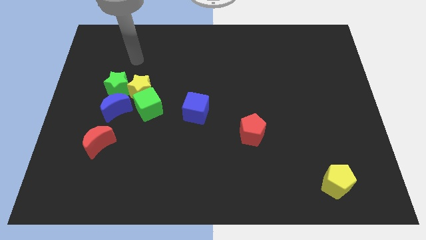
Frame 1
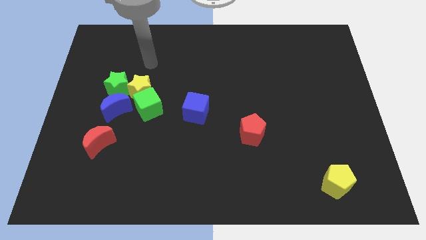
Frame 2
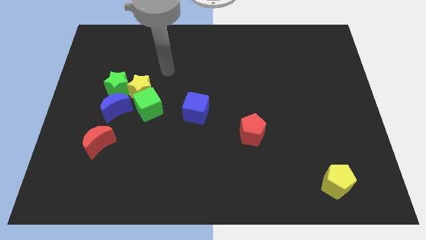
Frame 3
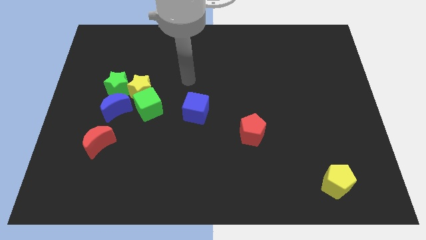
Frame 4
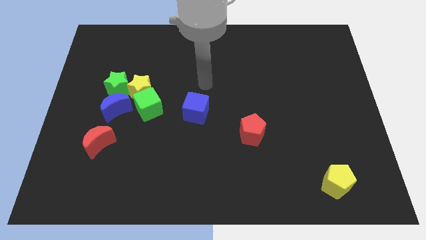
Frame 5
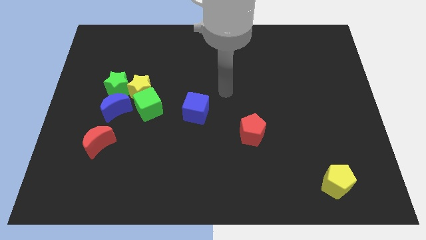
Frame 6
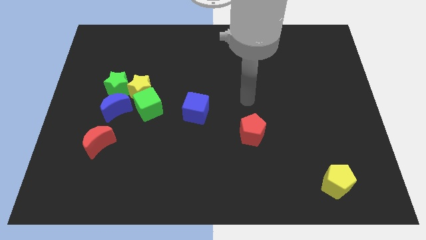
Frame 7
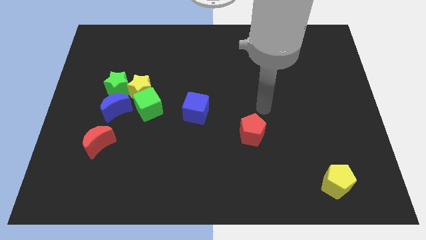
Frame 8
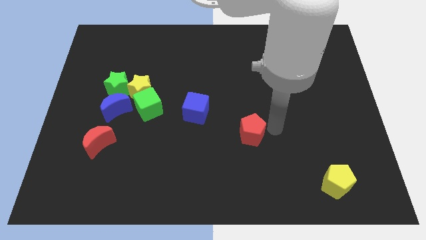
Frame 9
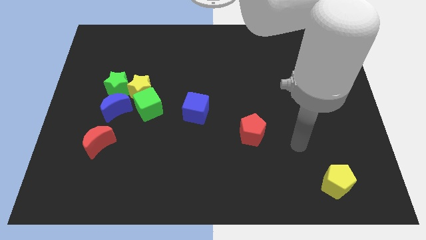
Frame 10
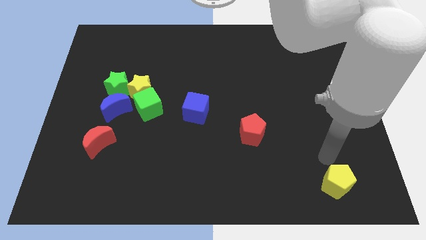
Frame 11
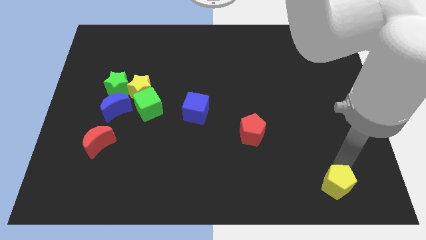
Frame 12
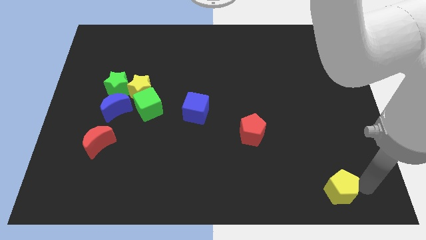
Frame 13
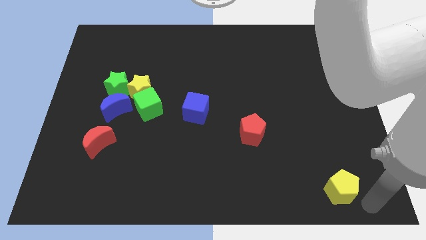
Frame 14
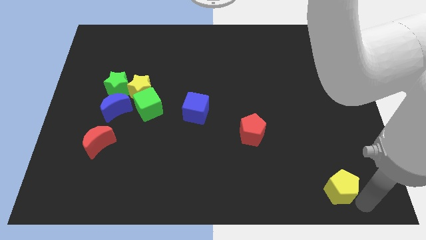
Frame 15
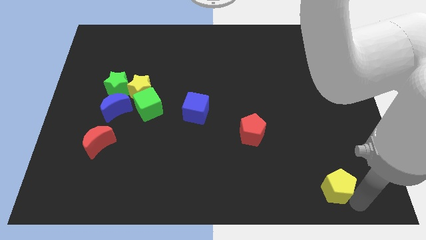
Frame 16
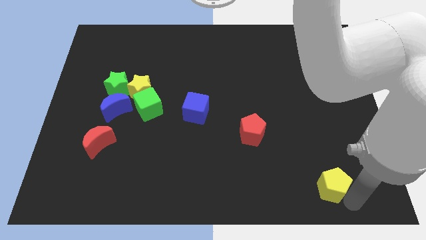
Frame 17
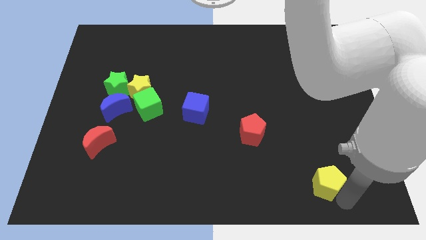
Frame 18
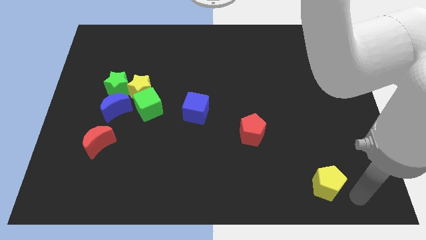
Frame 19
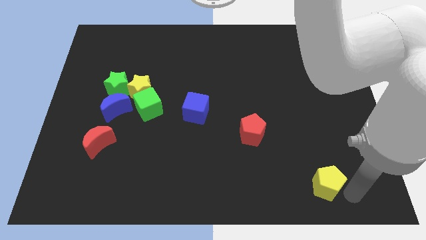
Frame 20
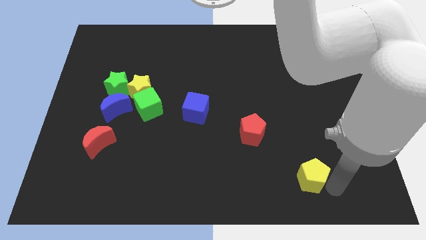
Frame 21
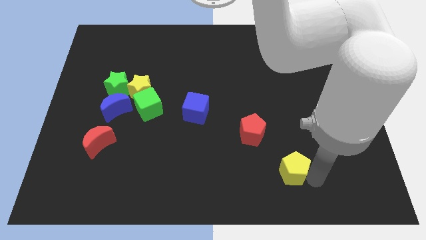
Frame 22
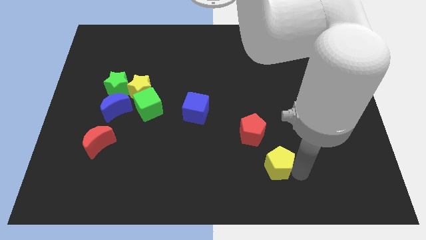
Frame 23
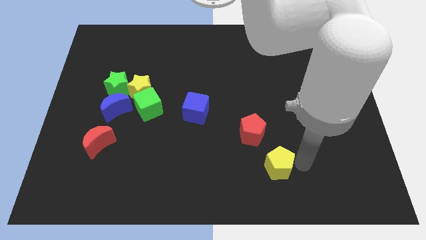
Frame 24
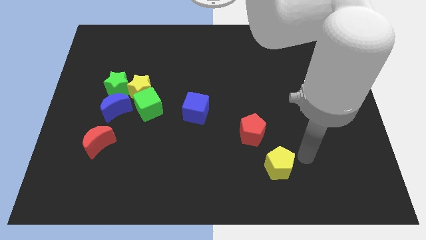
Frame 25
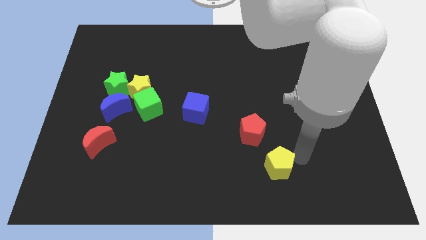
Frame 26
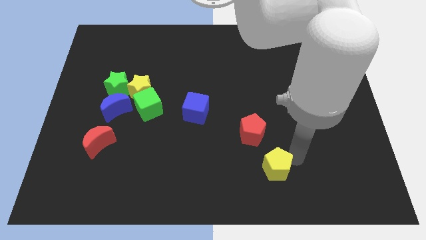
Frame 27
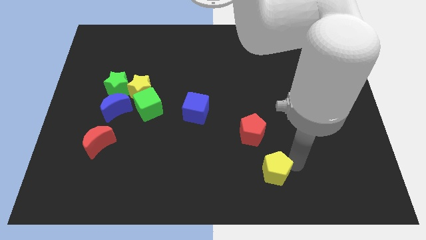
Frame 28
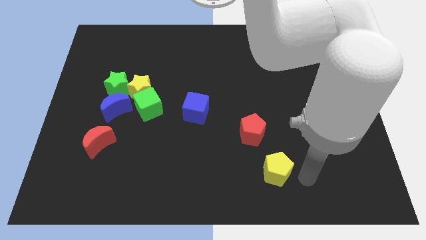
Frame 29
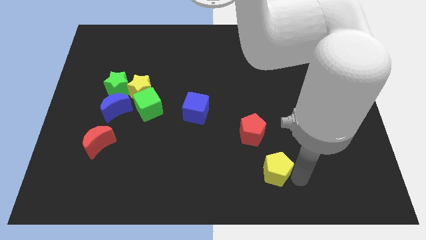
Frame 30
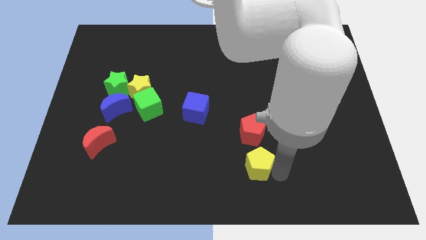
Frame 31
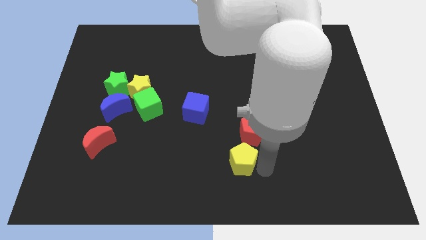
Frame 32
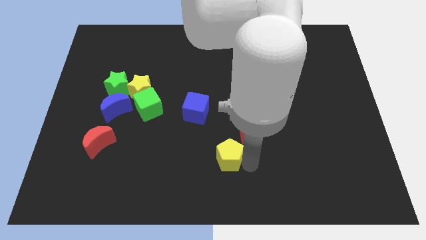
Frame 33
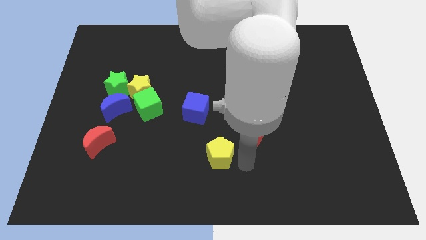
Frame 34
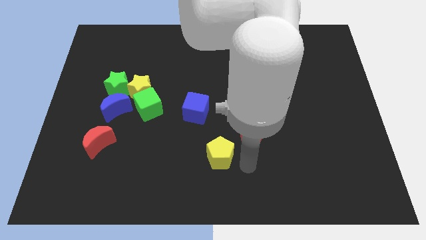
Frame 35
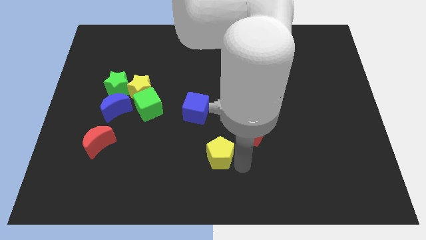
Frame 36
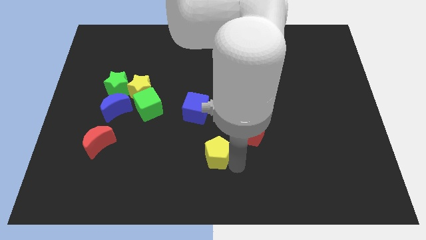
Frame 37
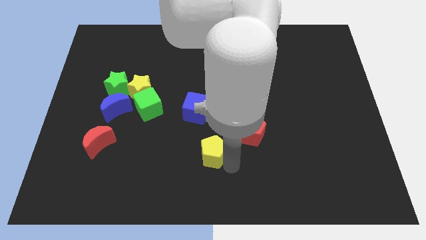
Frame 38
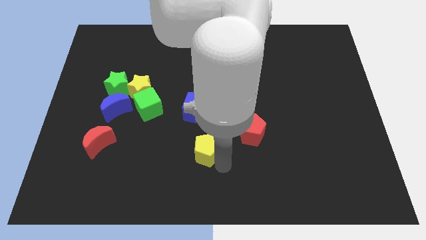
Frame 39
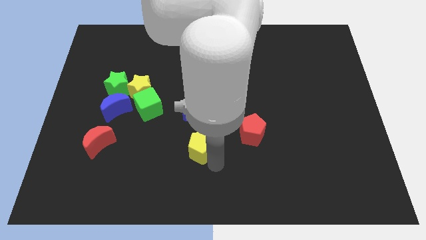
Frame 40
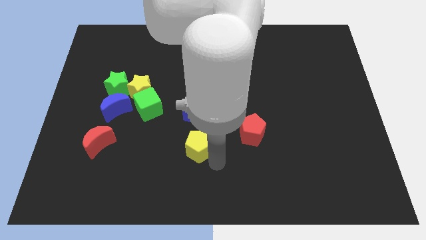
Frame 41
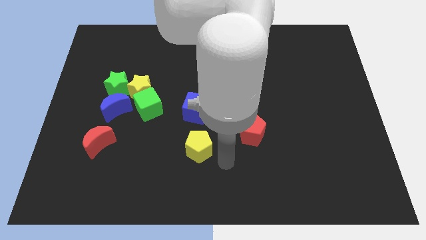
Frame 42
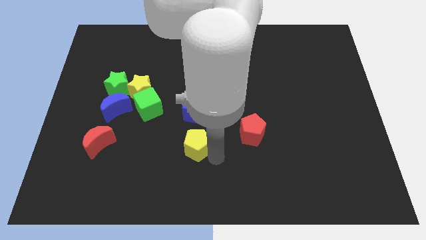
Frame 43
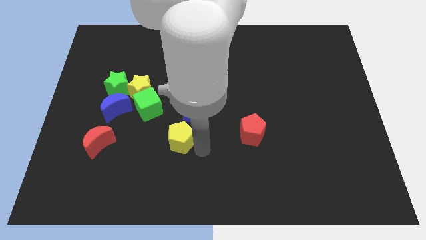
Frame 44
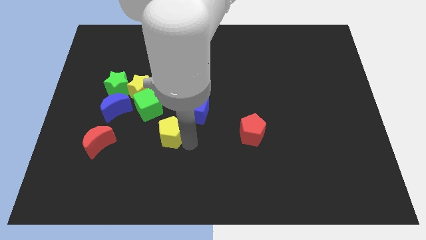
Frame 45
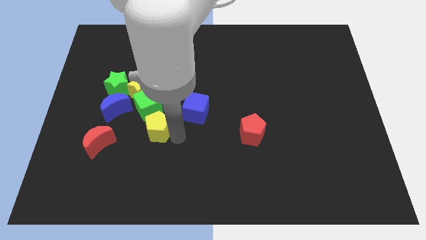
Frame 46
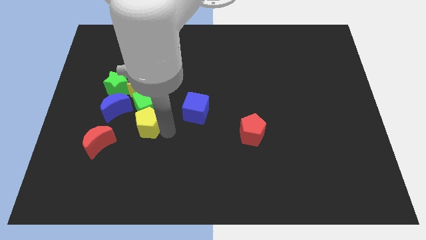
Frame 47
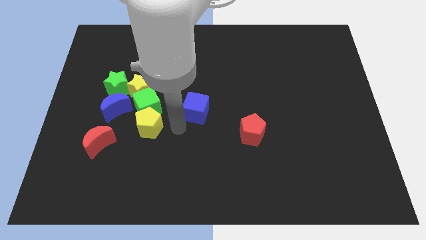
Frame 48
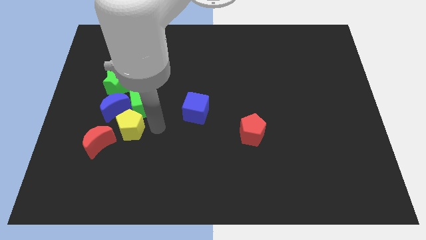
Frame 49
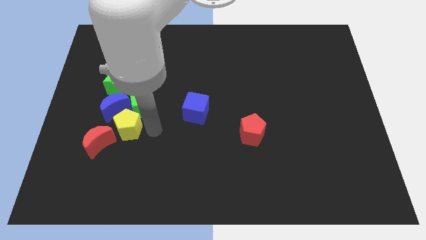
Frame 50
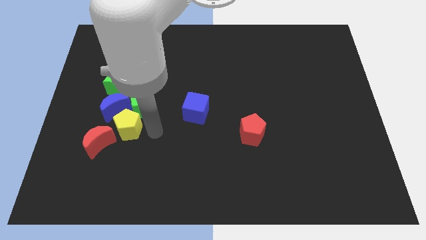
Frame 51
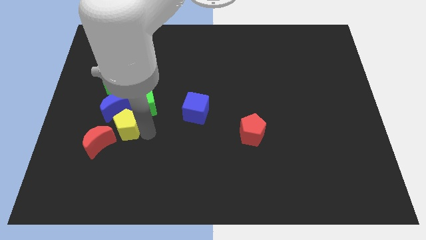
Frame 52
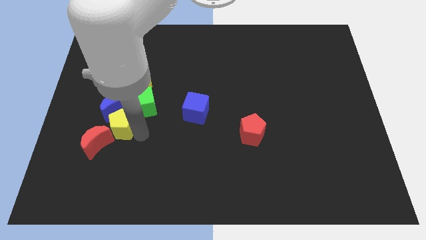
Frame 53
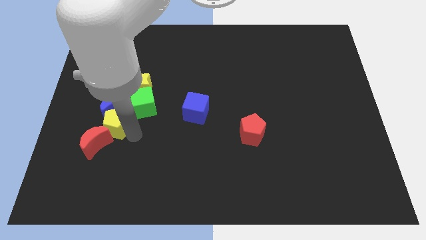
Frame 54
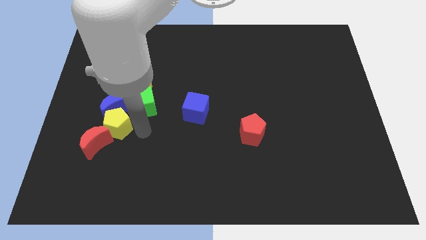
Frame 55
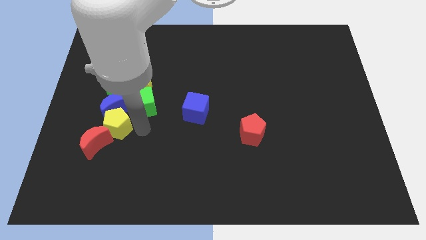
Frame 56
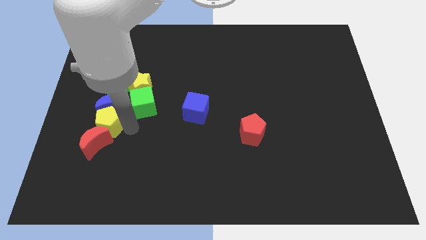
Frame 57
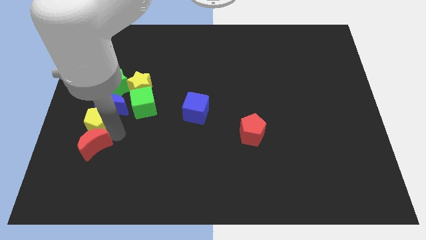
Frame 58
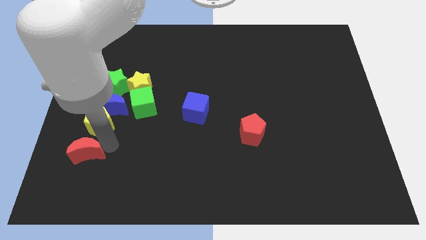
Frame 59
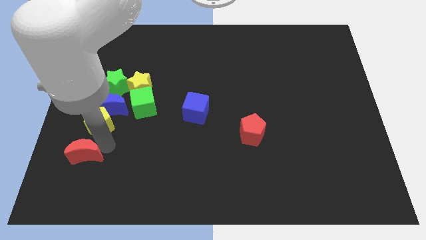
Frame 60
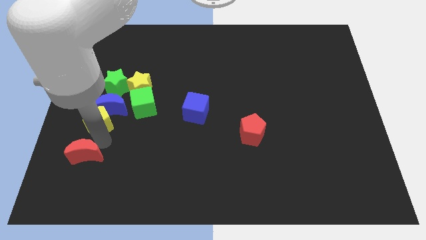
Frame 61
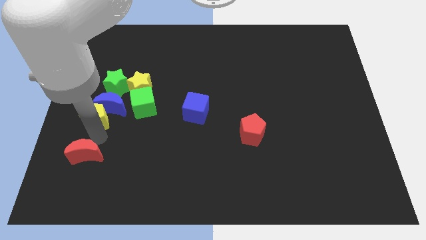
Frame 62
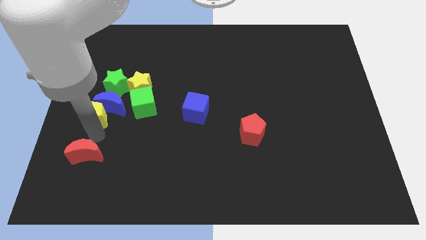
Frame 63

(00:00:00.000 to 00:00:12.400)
move the yellow pentagon diagonally down and to the left of the green star

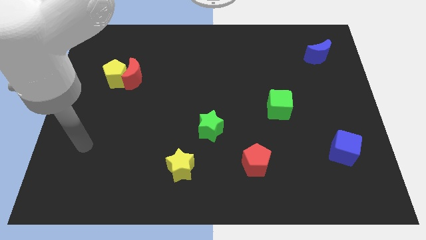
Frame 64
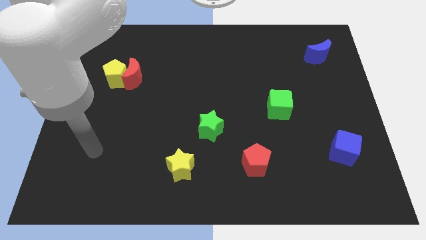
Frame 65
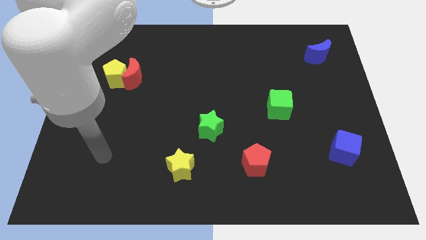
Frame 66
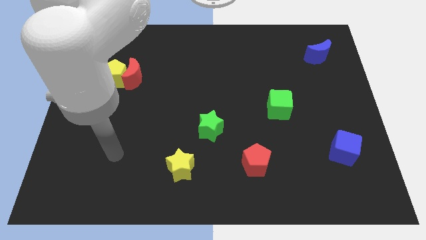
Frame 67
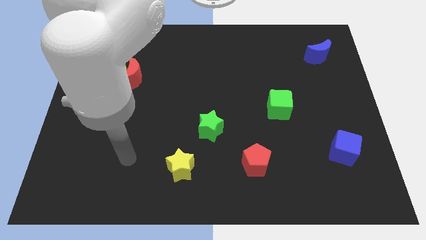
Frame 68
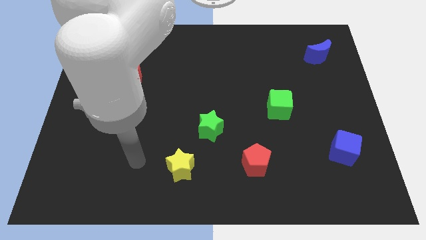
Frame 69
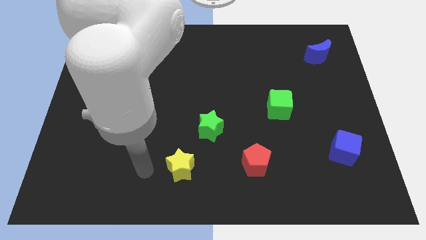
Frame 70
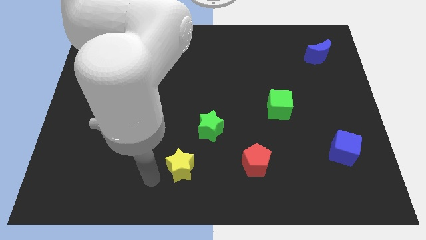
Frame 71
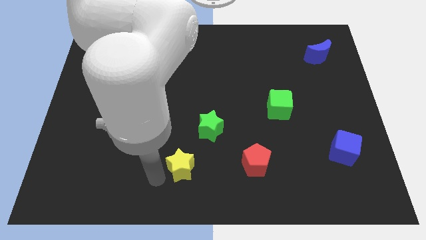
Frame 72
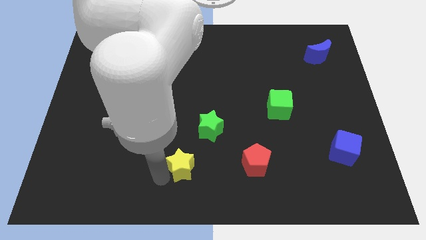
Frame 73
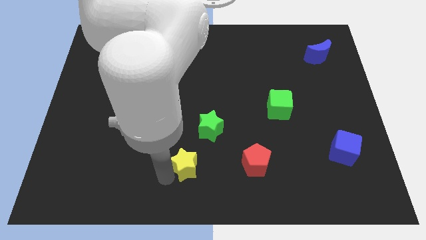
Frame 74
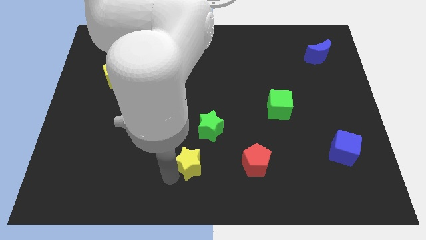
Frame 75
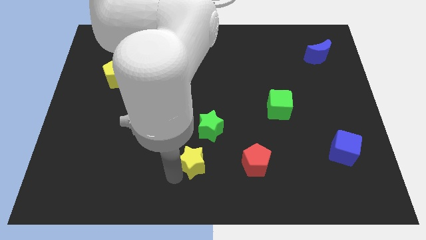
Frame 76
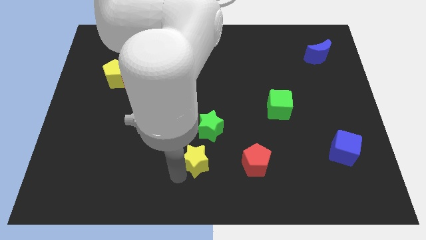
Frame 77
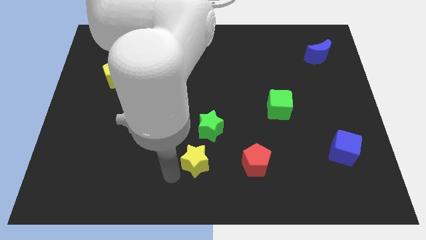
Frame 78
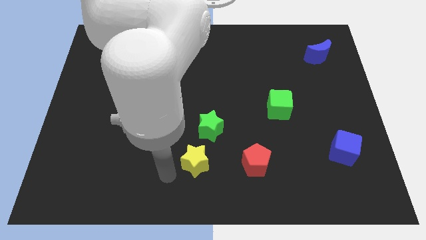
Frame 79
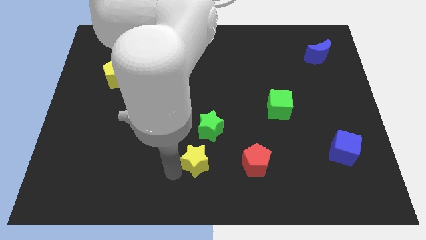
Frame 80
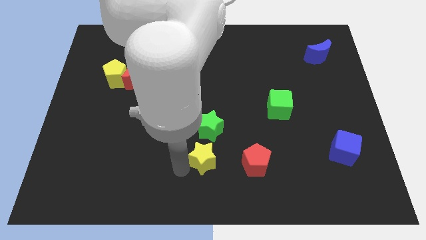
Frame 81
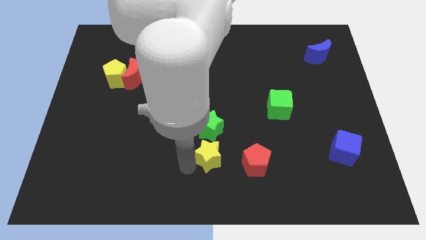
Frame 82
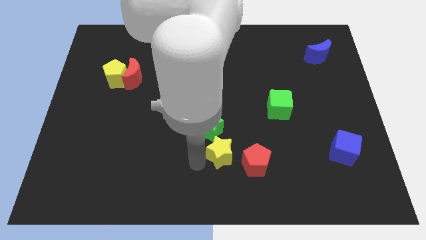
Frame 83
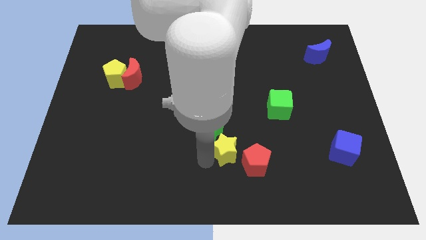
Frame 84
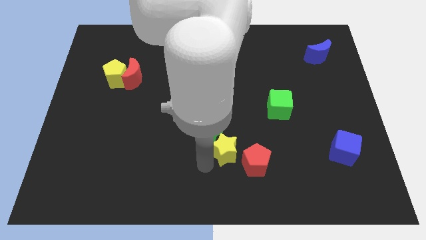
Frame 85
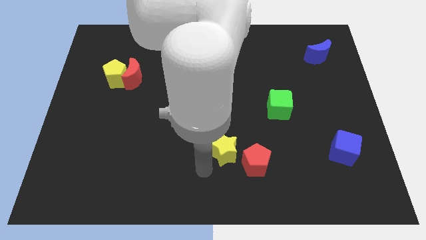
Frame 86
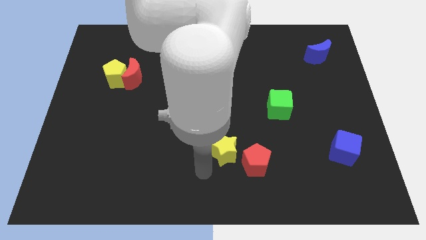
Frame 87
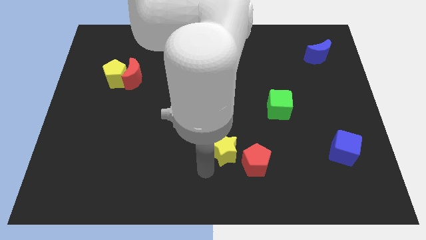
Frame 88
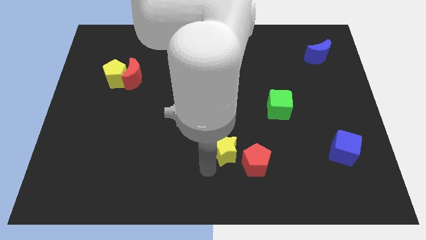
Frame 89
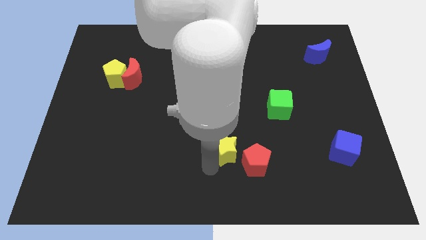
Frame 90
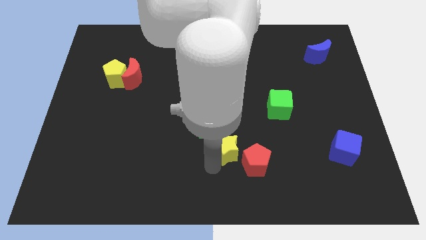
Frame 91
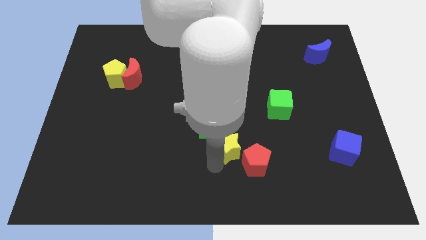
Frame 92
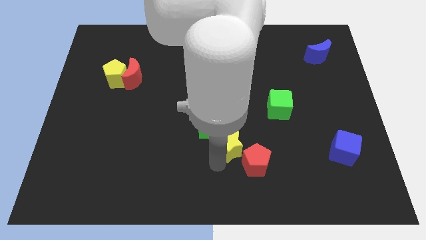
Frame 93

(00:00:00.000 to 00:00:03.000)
put the yellow star just right of the green star
